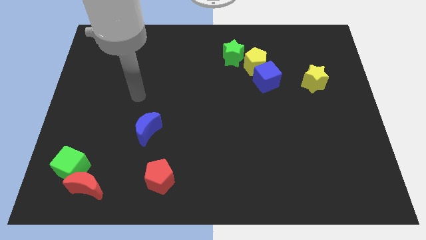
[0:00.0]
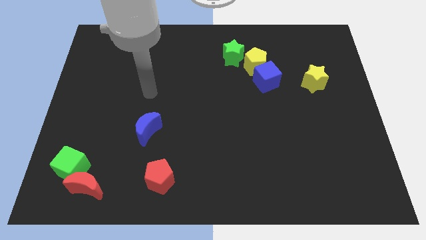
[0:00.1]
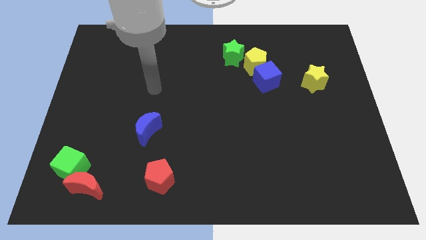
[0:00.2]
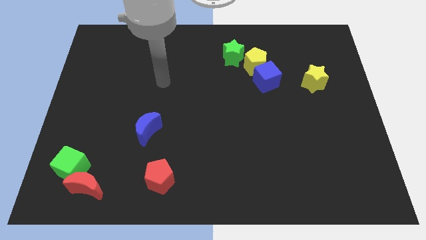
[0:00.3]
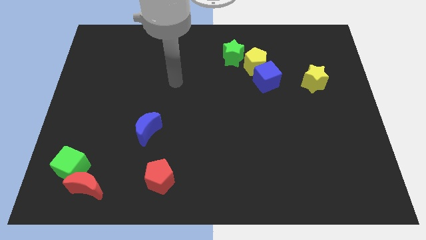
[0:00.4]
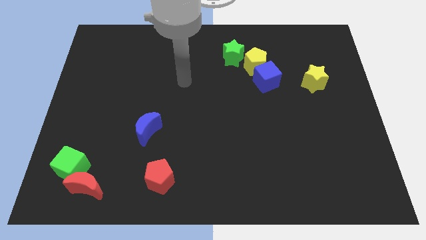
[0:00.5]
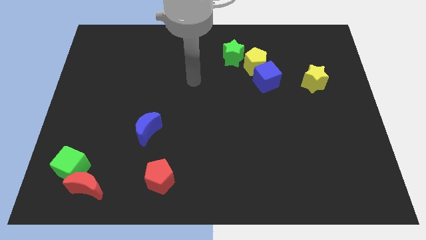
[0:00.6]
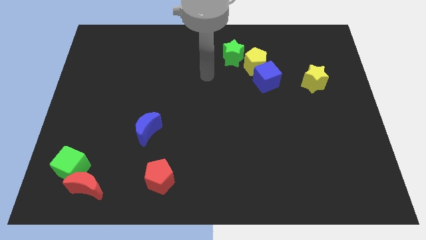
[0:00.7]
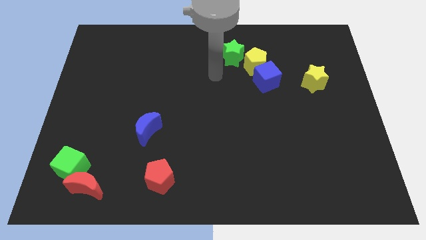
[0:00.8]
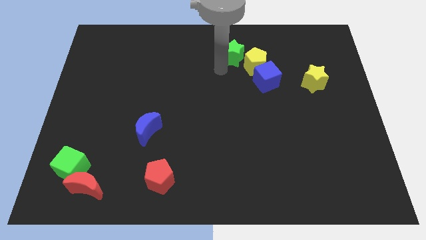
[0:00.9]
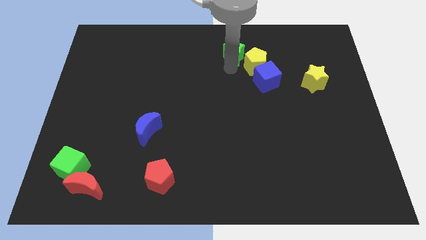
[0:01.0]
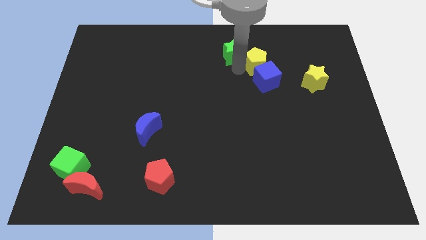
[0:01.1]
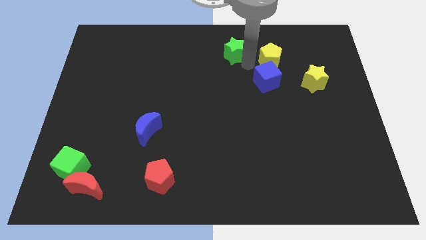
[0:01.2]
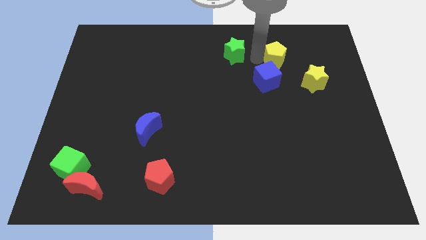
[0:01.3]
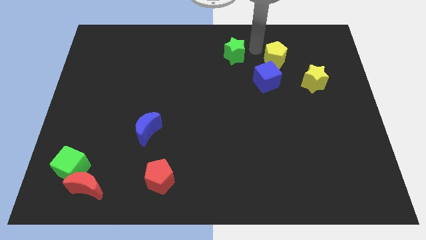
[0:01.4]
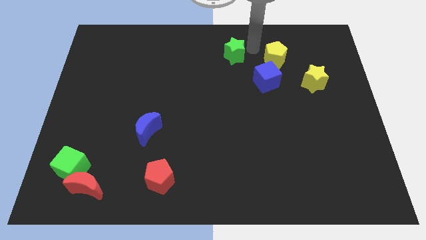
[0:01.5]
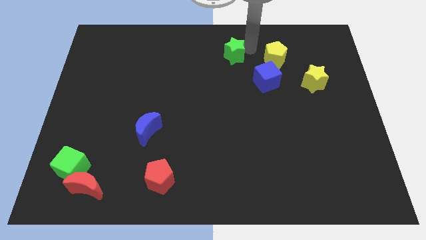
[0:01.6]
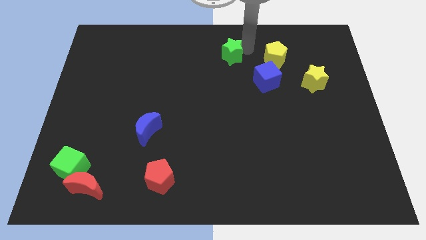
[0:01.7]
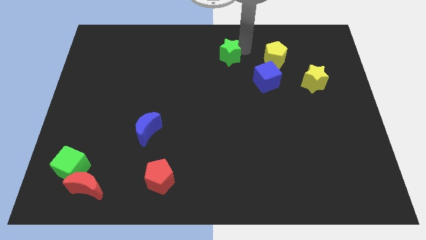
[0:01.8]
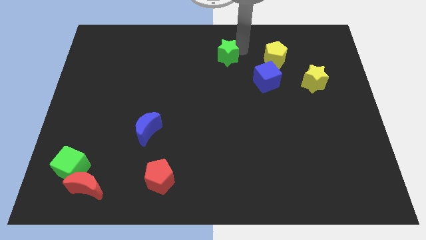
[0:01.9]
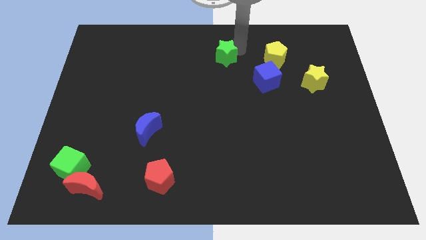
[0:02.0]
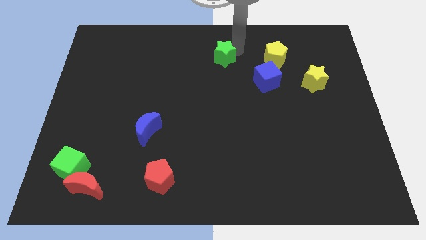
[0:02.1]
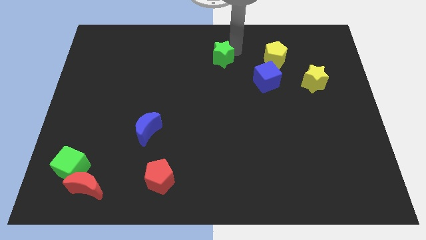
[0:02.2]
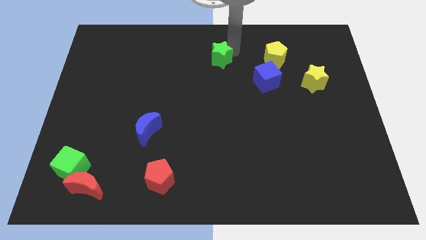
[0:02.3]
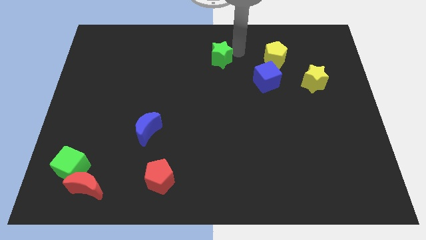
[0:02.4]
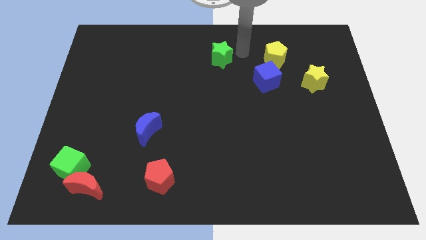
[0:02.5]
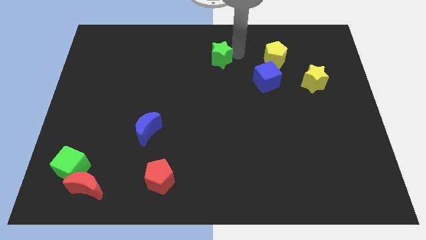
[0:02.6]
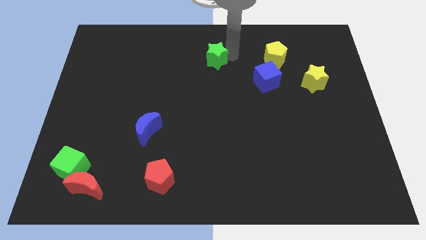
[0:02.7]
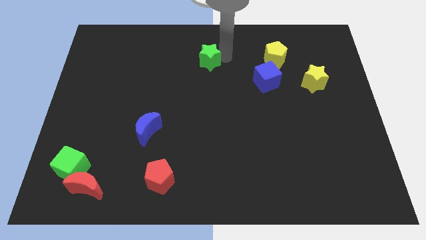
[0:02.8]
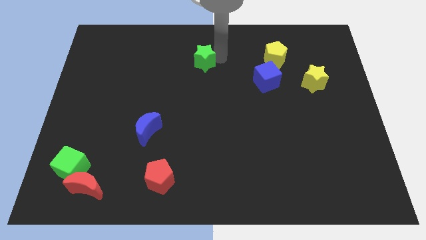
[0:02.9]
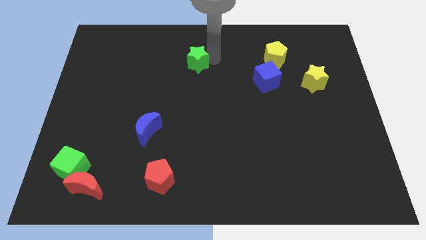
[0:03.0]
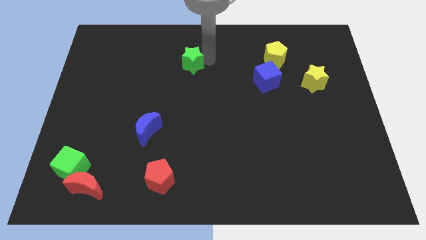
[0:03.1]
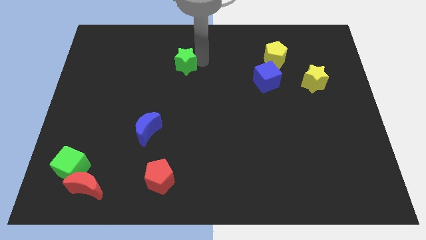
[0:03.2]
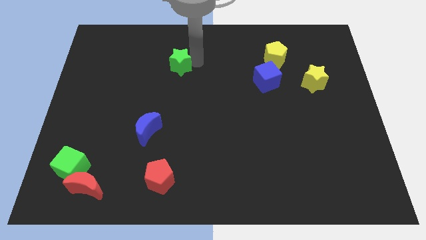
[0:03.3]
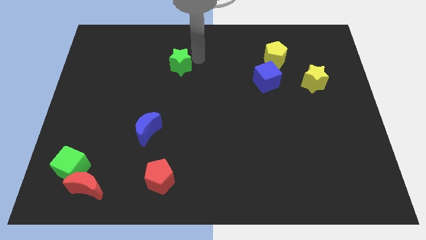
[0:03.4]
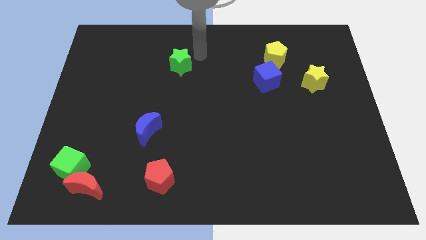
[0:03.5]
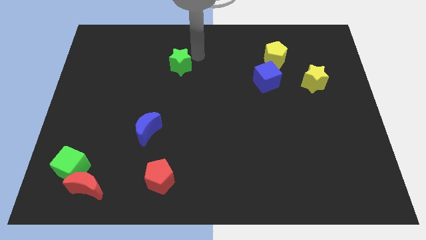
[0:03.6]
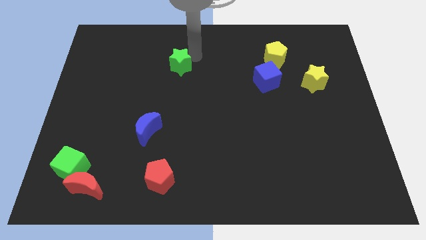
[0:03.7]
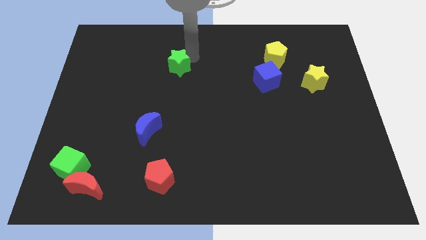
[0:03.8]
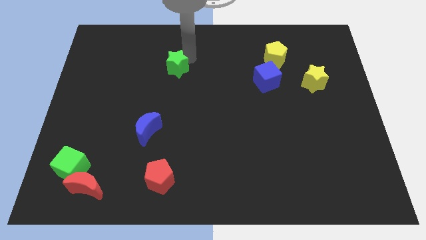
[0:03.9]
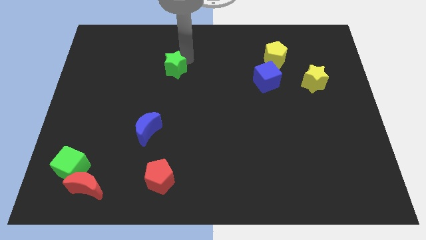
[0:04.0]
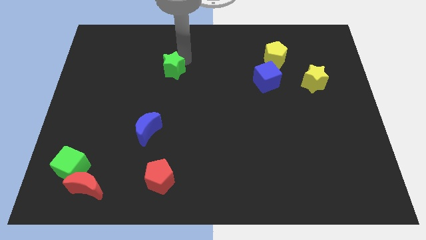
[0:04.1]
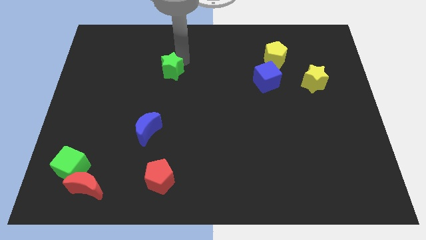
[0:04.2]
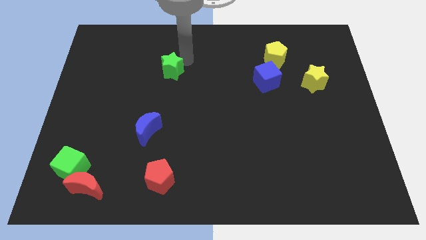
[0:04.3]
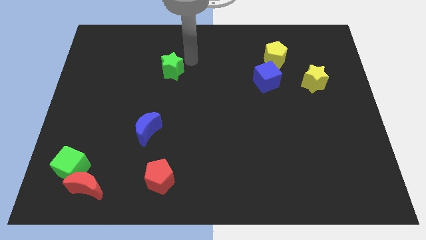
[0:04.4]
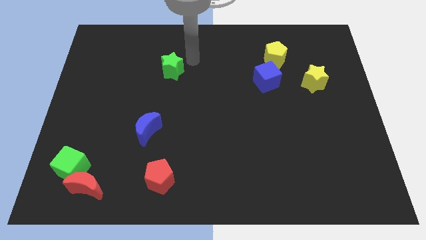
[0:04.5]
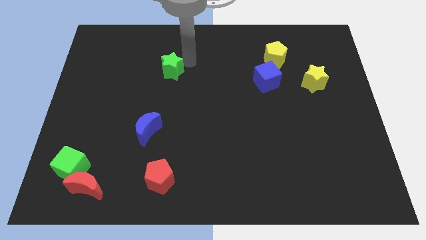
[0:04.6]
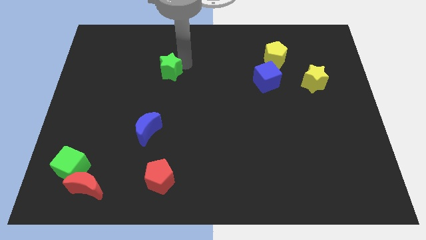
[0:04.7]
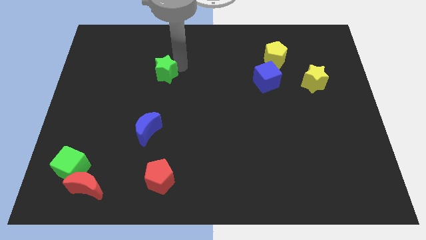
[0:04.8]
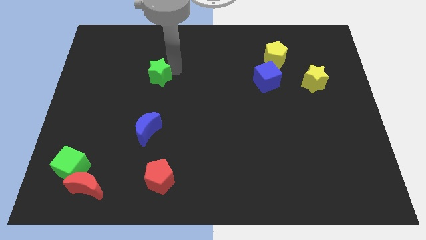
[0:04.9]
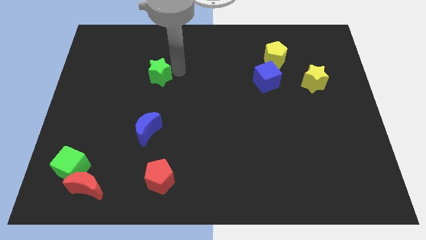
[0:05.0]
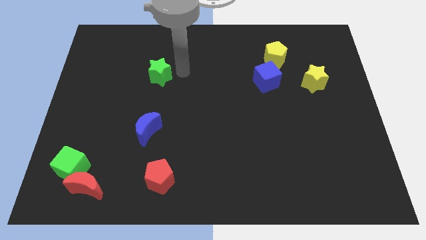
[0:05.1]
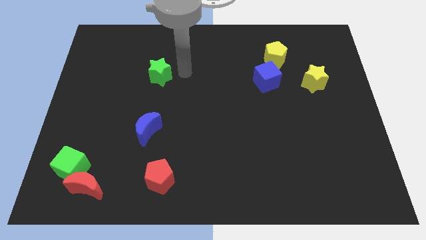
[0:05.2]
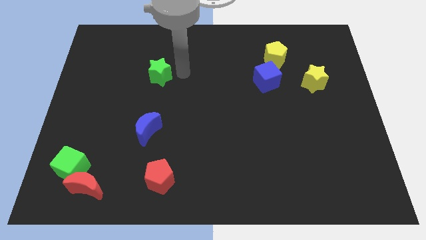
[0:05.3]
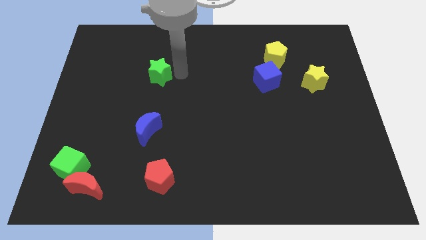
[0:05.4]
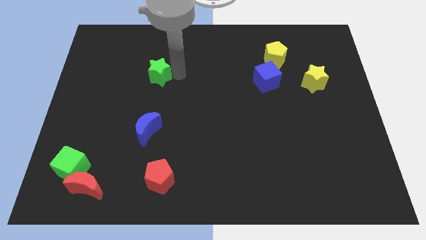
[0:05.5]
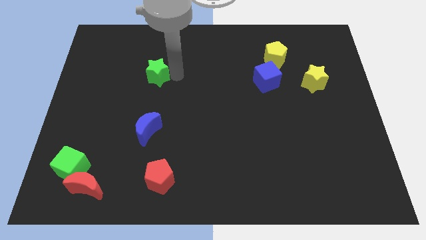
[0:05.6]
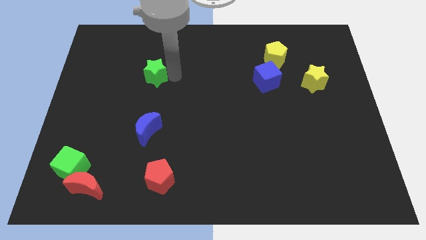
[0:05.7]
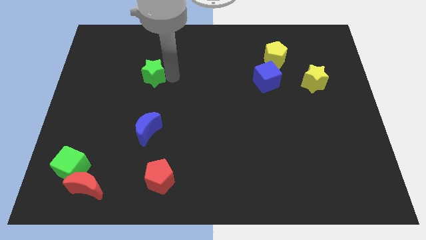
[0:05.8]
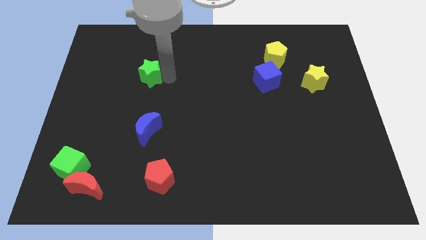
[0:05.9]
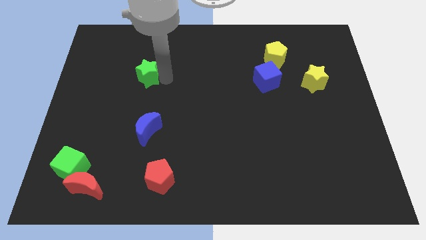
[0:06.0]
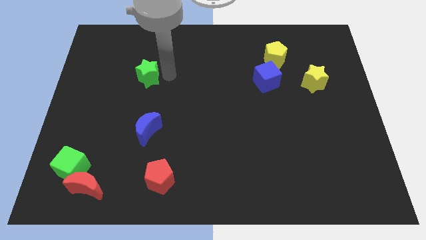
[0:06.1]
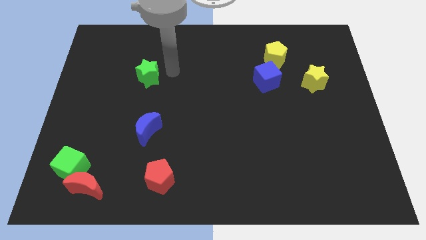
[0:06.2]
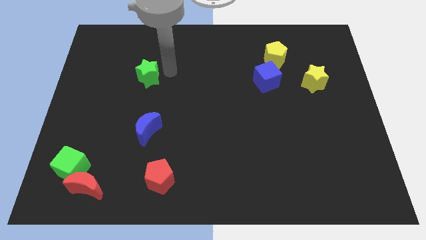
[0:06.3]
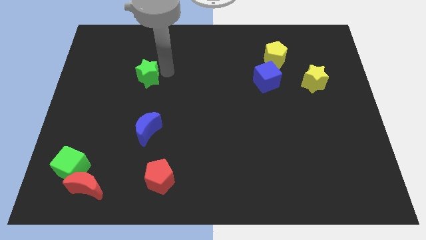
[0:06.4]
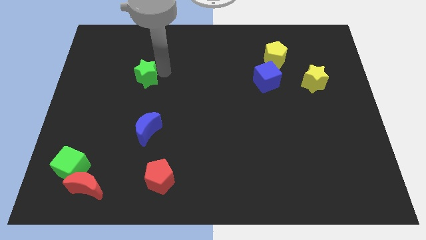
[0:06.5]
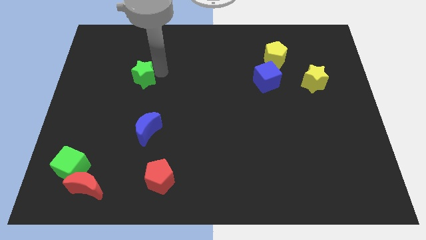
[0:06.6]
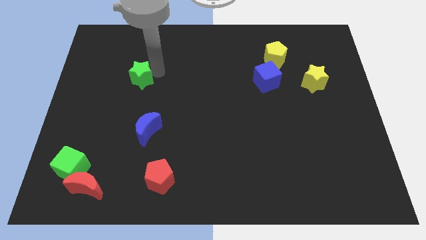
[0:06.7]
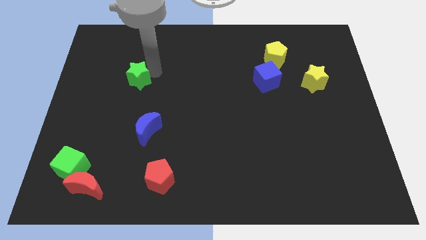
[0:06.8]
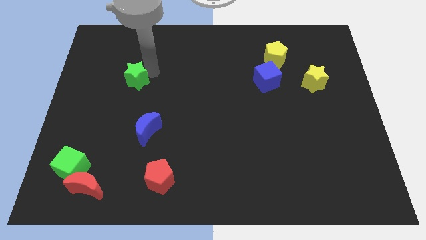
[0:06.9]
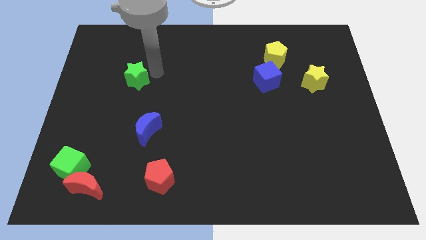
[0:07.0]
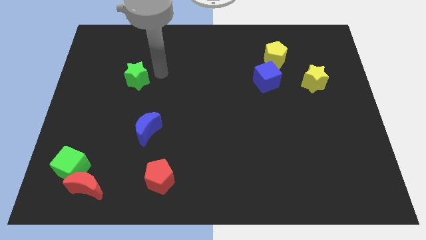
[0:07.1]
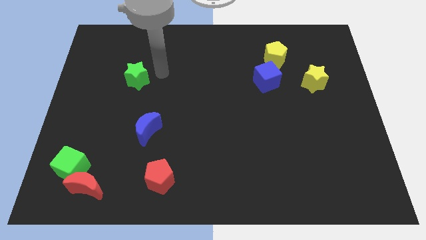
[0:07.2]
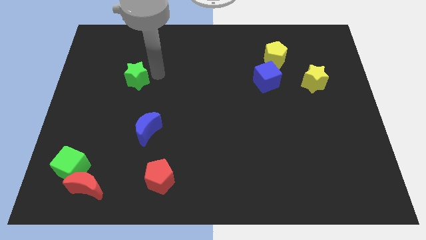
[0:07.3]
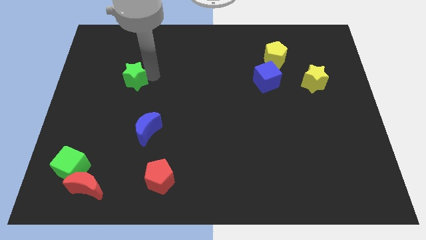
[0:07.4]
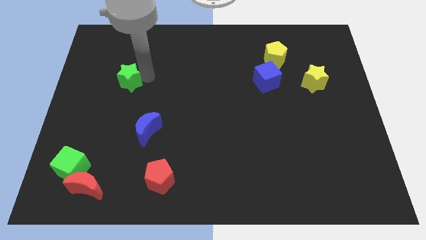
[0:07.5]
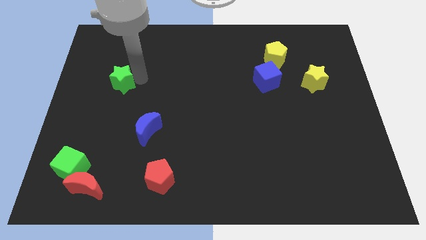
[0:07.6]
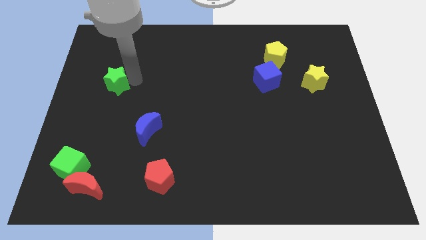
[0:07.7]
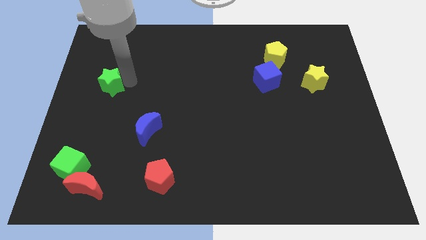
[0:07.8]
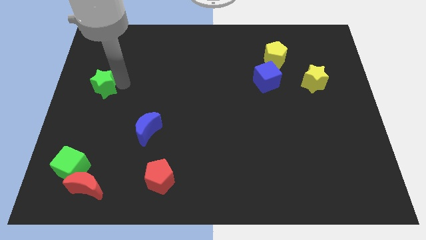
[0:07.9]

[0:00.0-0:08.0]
move the green star to the left side of the board
